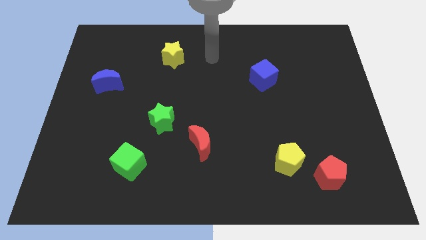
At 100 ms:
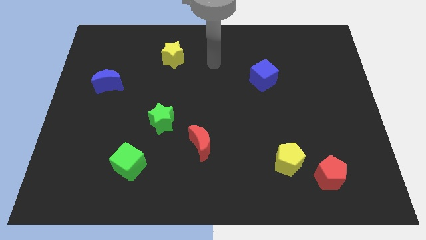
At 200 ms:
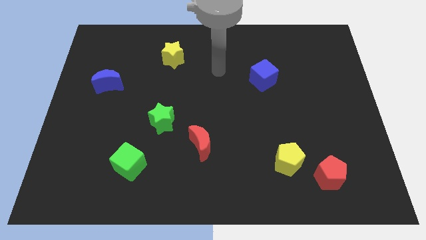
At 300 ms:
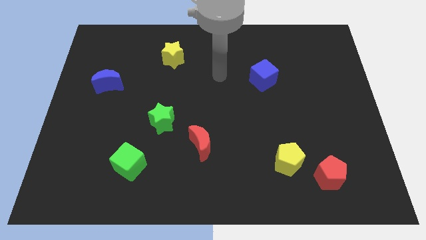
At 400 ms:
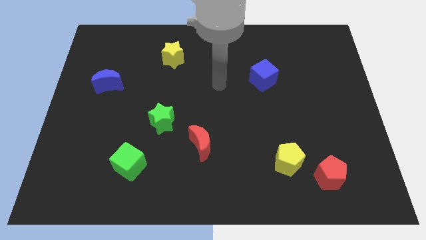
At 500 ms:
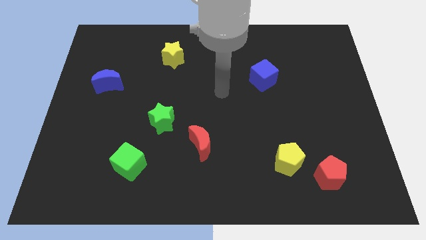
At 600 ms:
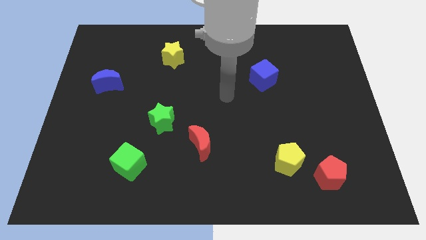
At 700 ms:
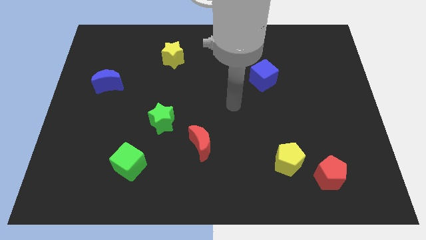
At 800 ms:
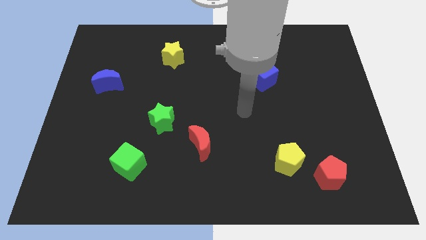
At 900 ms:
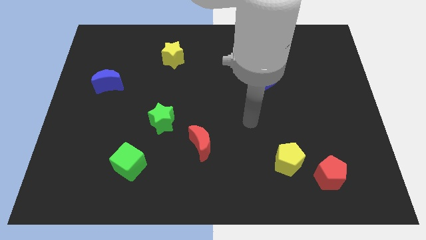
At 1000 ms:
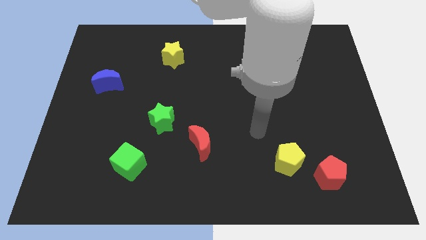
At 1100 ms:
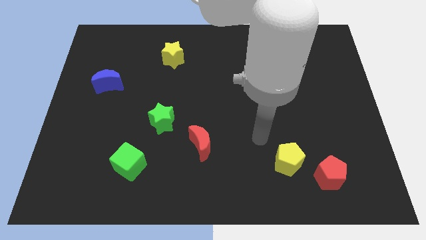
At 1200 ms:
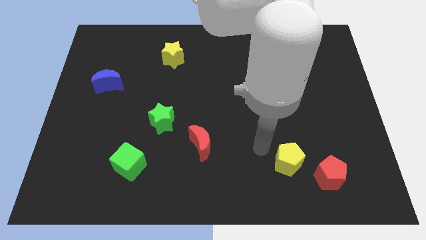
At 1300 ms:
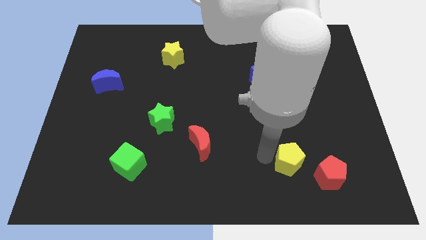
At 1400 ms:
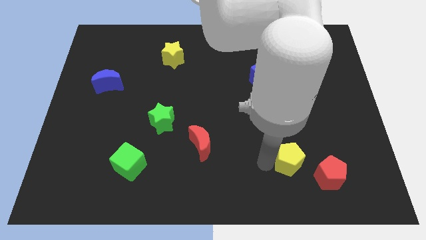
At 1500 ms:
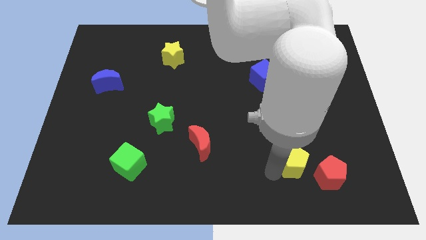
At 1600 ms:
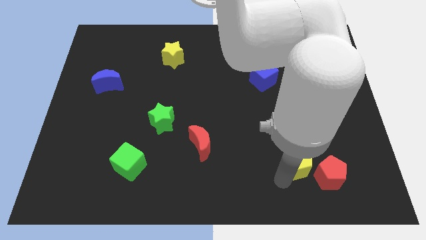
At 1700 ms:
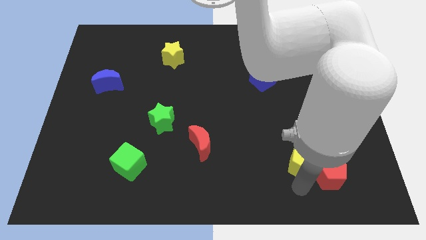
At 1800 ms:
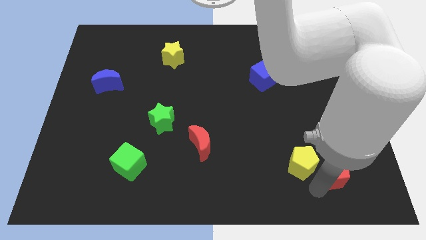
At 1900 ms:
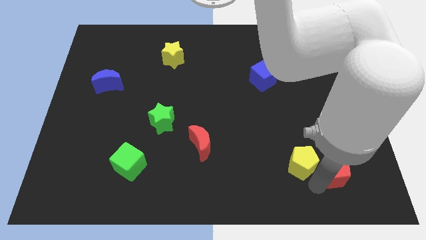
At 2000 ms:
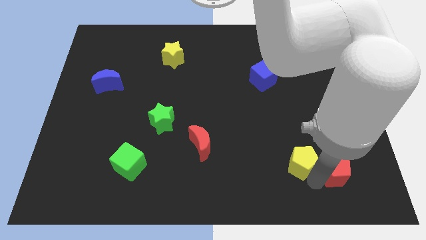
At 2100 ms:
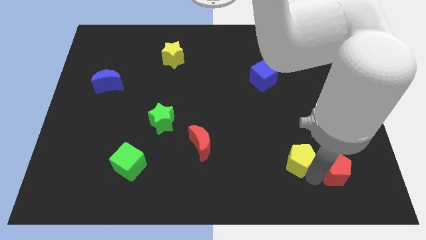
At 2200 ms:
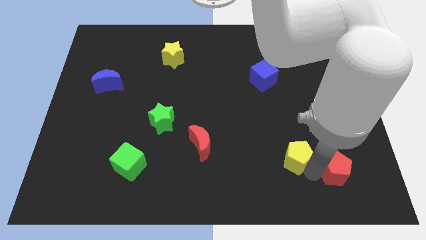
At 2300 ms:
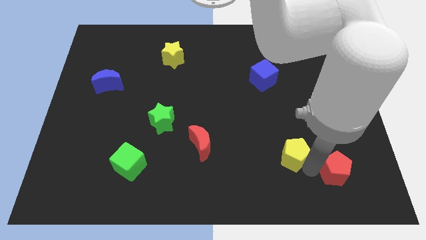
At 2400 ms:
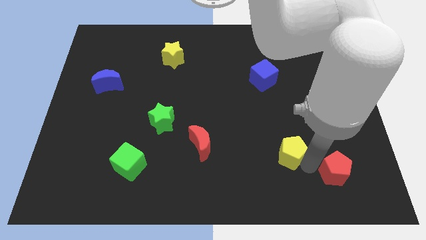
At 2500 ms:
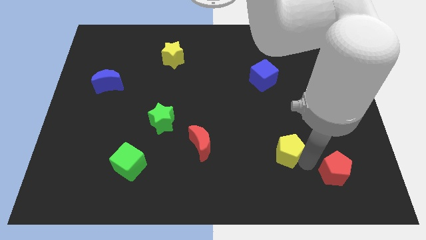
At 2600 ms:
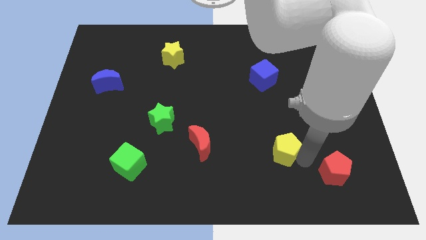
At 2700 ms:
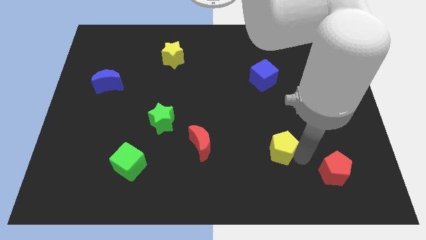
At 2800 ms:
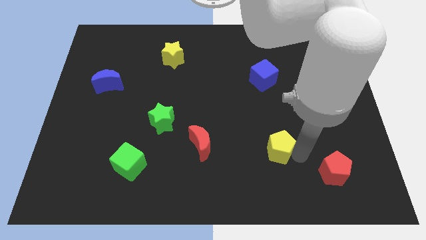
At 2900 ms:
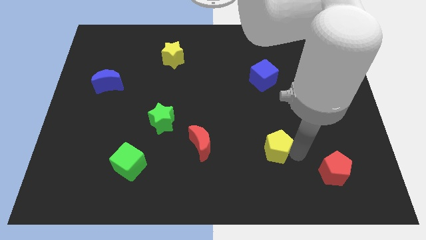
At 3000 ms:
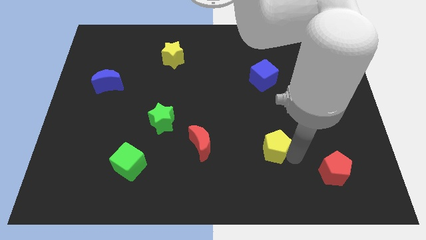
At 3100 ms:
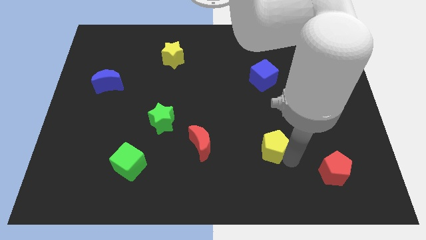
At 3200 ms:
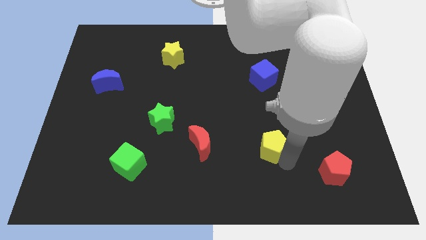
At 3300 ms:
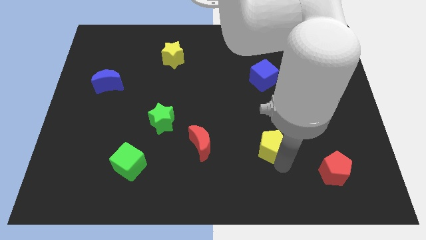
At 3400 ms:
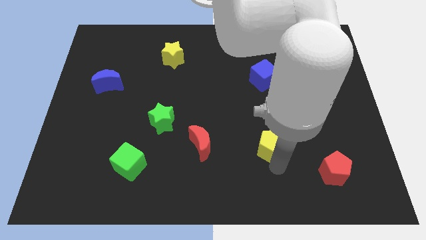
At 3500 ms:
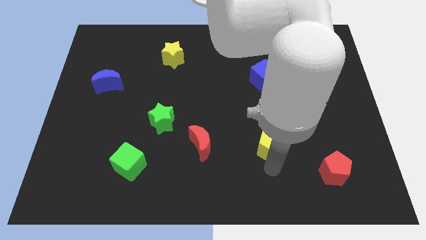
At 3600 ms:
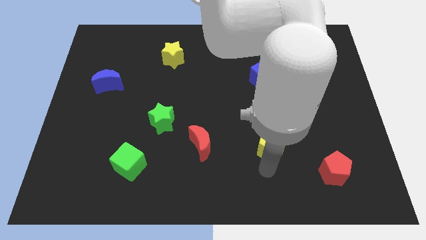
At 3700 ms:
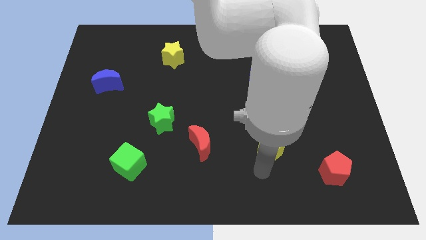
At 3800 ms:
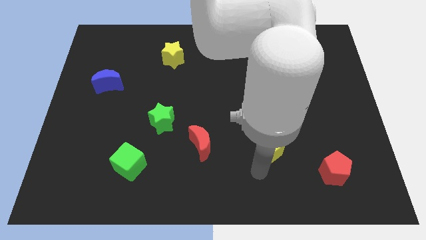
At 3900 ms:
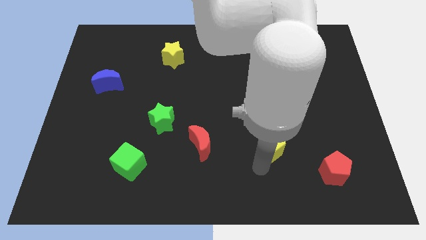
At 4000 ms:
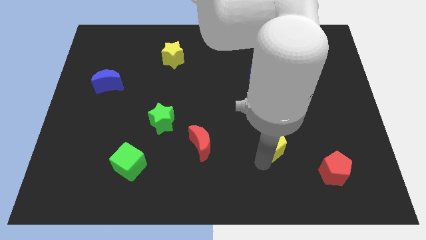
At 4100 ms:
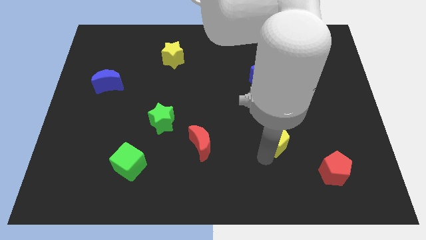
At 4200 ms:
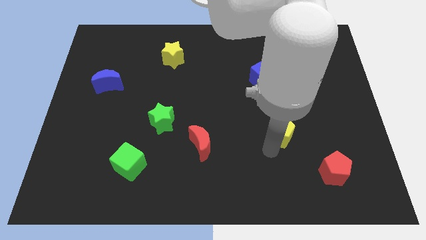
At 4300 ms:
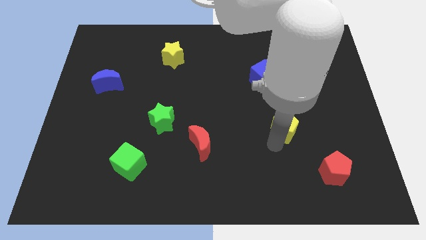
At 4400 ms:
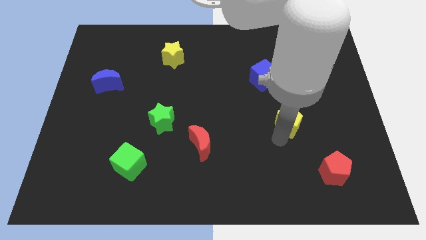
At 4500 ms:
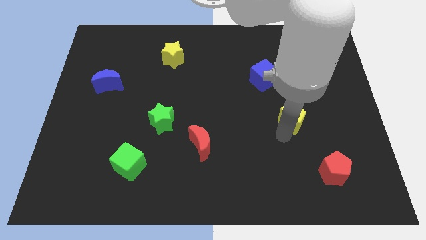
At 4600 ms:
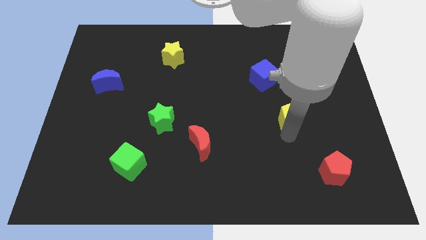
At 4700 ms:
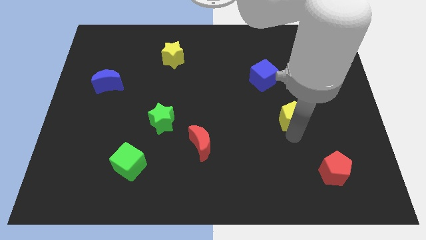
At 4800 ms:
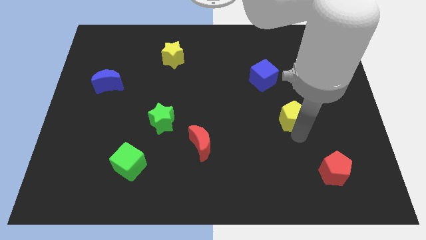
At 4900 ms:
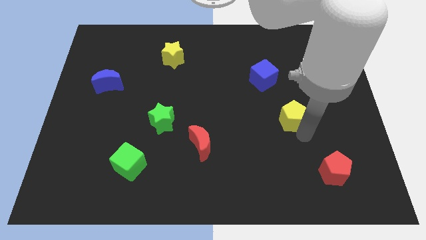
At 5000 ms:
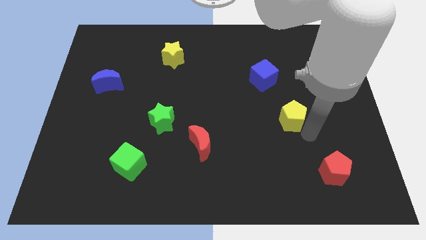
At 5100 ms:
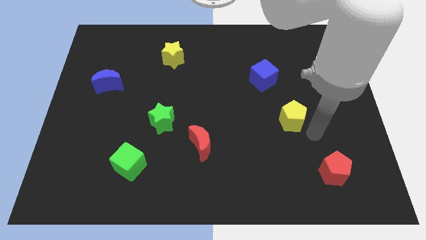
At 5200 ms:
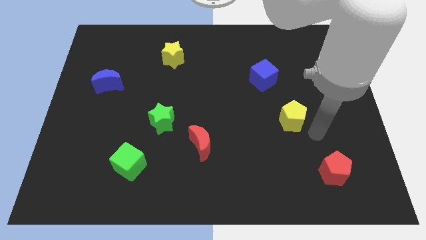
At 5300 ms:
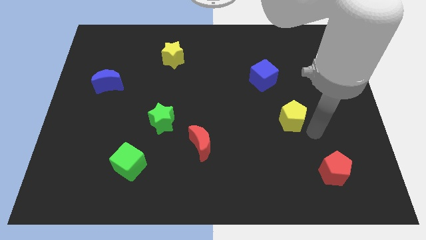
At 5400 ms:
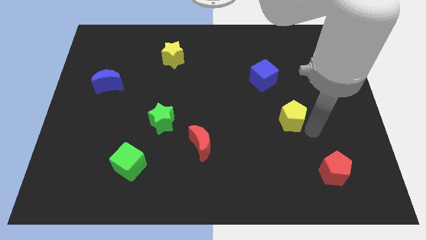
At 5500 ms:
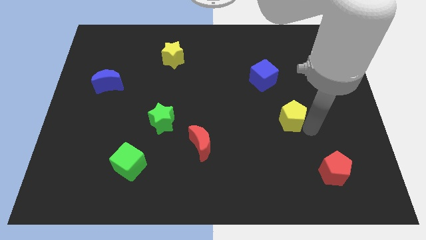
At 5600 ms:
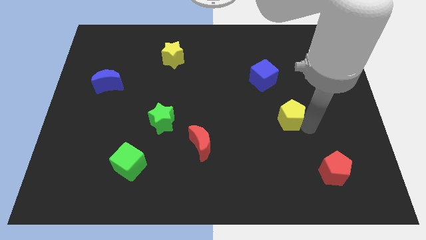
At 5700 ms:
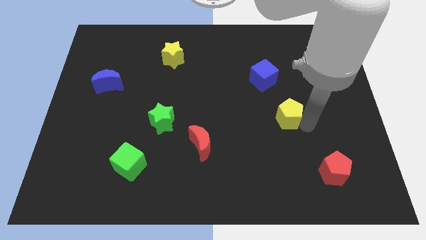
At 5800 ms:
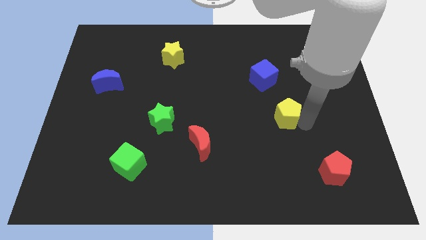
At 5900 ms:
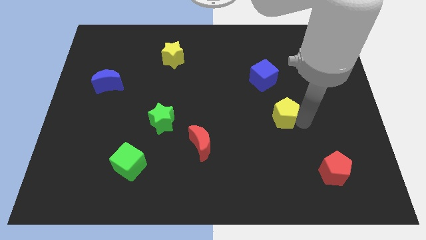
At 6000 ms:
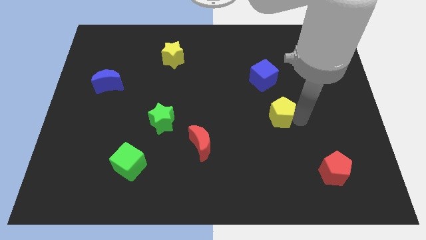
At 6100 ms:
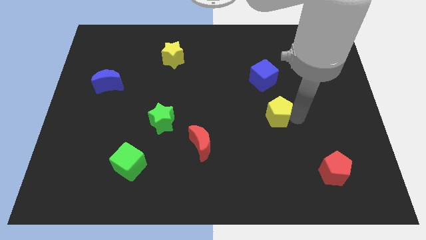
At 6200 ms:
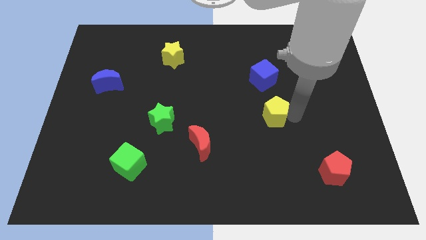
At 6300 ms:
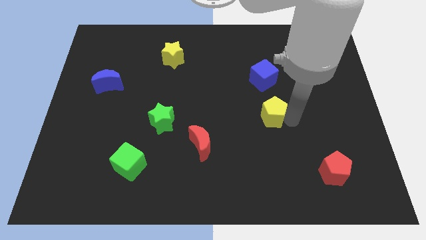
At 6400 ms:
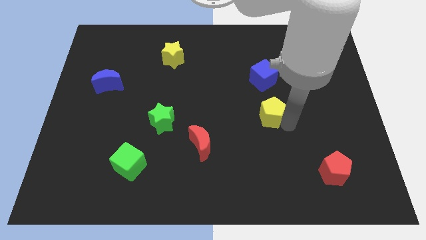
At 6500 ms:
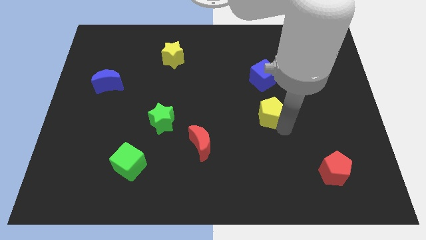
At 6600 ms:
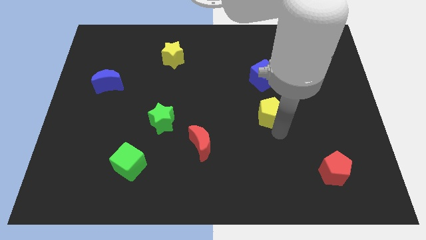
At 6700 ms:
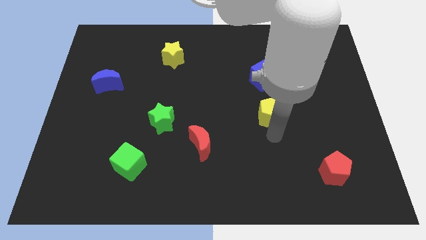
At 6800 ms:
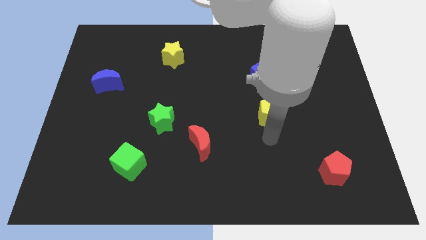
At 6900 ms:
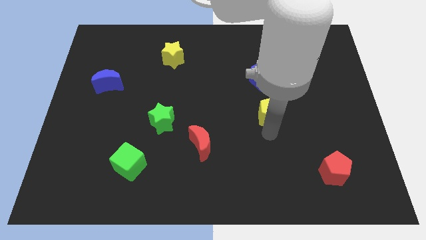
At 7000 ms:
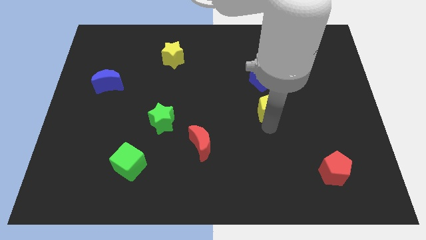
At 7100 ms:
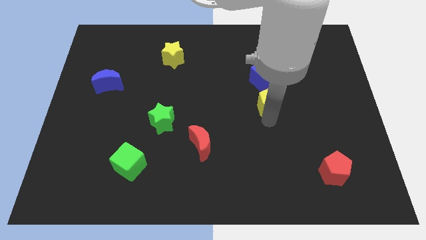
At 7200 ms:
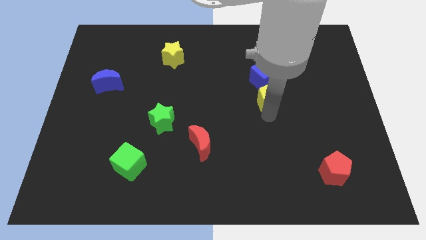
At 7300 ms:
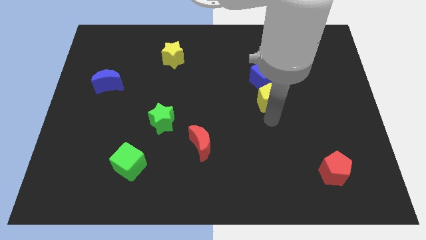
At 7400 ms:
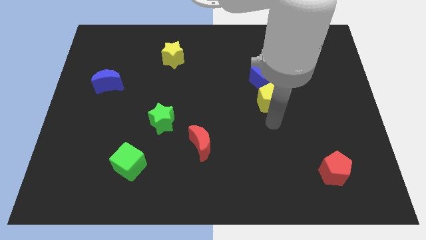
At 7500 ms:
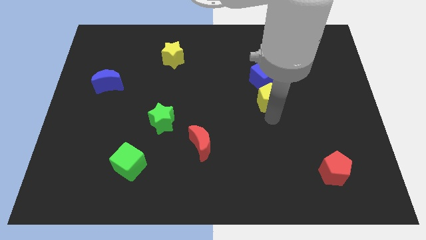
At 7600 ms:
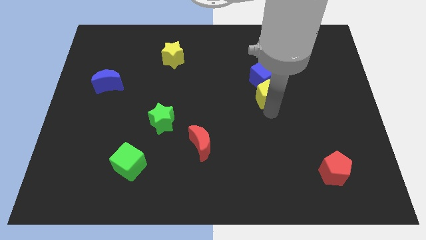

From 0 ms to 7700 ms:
move the yellow pentagon close to the blue cube
